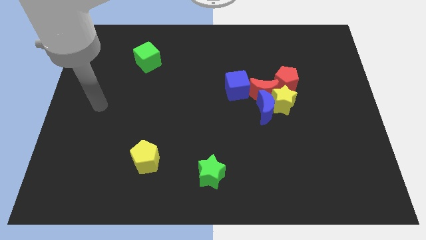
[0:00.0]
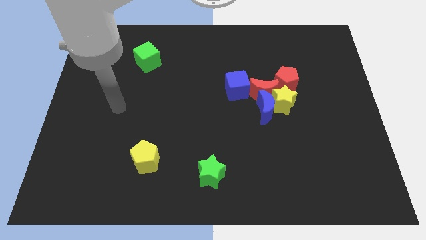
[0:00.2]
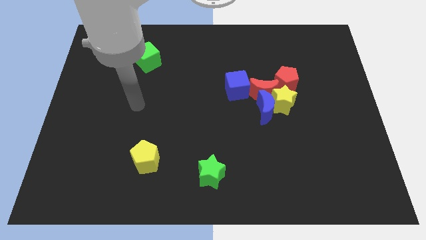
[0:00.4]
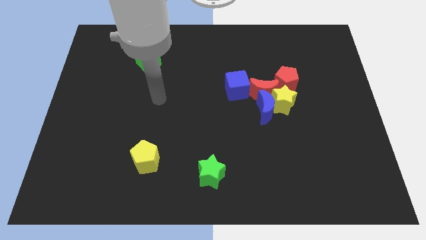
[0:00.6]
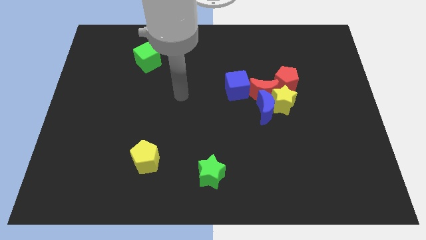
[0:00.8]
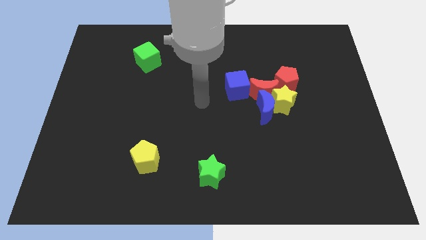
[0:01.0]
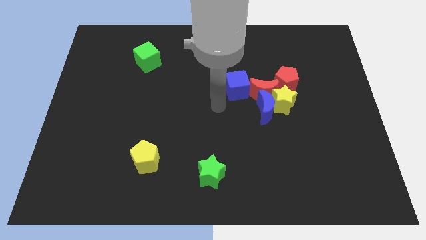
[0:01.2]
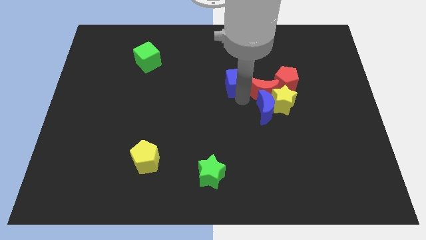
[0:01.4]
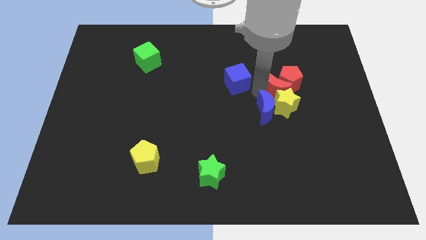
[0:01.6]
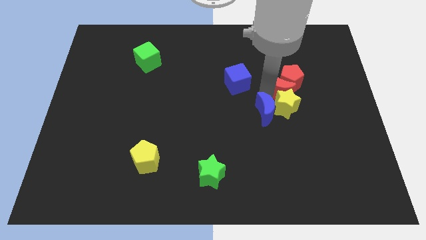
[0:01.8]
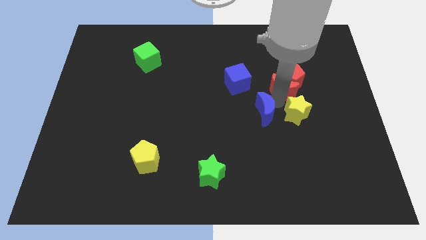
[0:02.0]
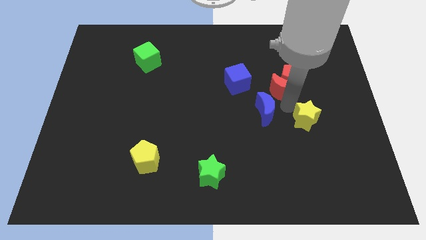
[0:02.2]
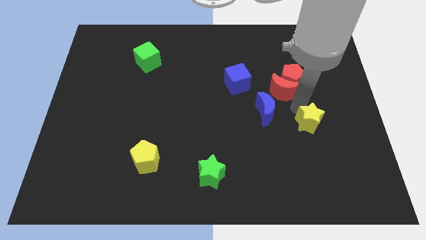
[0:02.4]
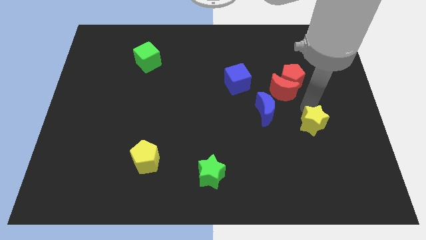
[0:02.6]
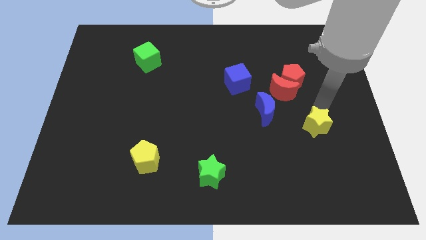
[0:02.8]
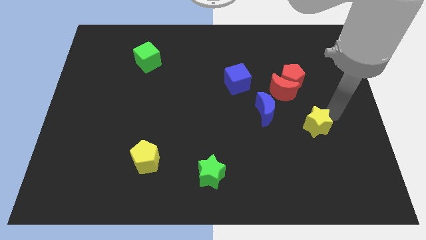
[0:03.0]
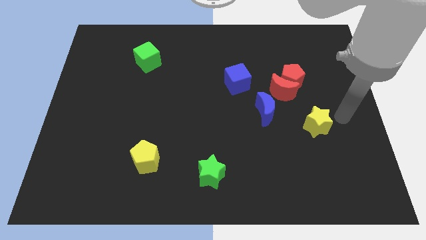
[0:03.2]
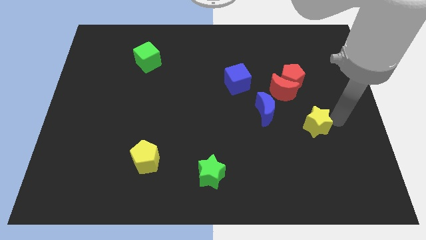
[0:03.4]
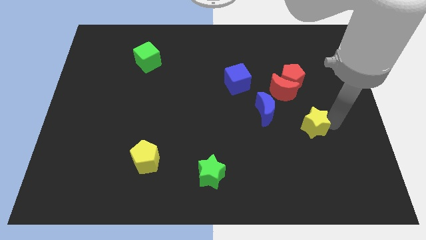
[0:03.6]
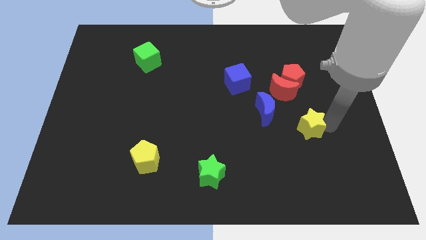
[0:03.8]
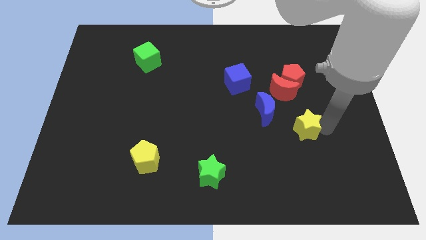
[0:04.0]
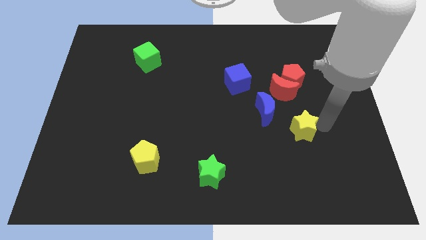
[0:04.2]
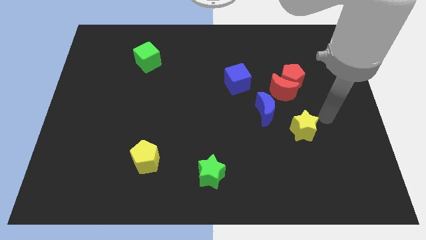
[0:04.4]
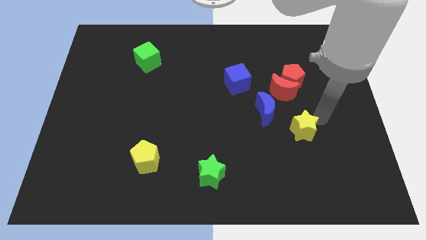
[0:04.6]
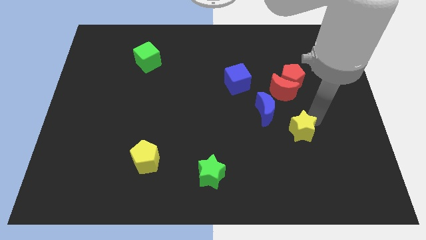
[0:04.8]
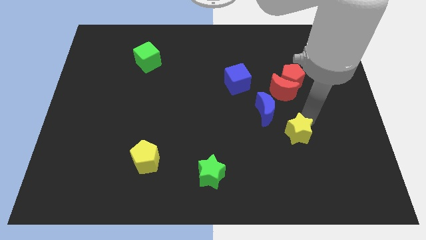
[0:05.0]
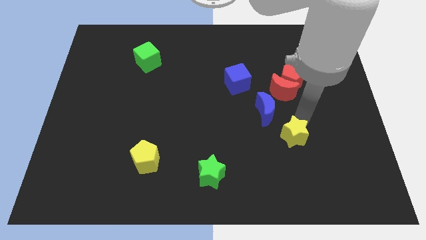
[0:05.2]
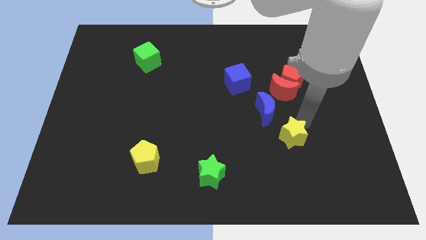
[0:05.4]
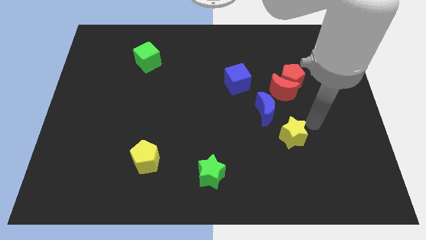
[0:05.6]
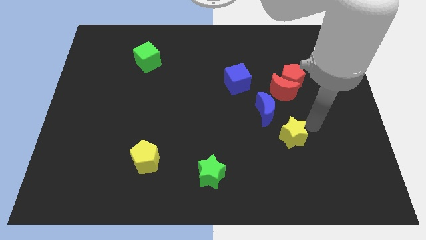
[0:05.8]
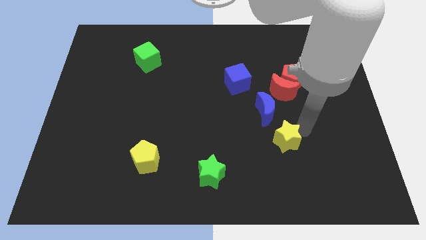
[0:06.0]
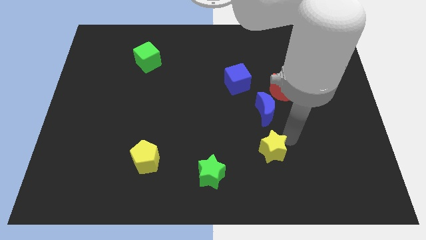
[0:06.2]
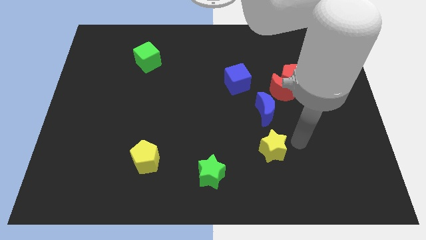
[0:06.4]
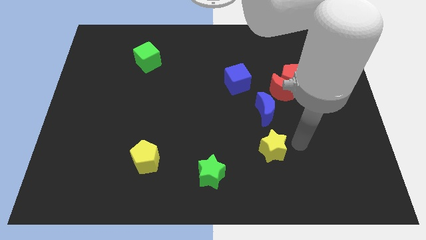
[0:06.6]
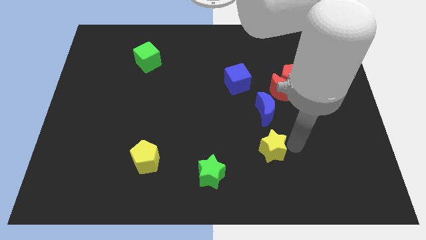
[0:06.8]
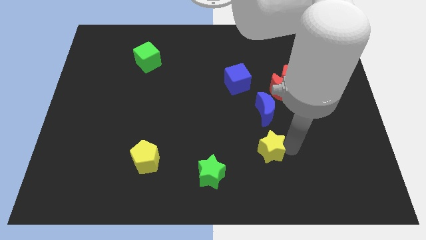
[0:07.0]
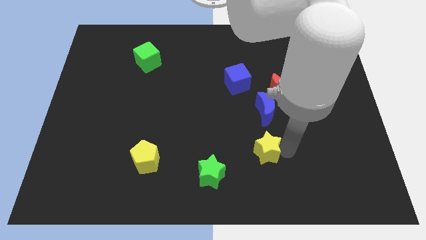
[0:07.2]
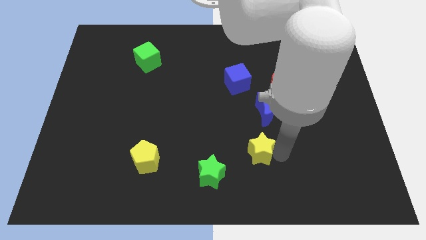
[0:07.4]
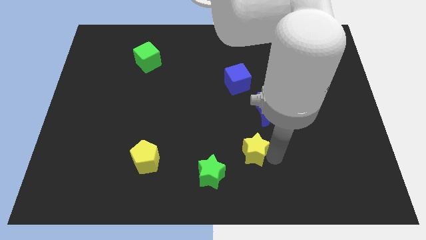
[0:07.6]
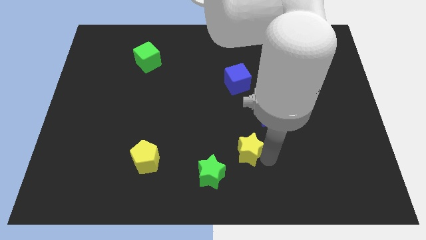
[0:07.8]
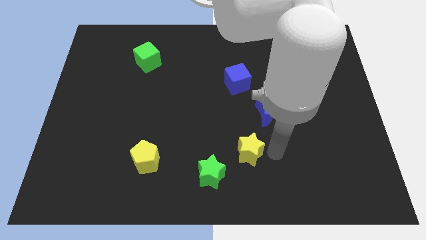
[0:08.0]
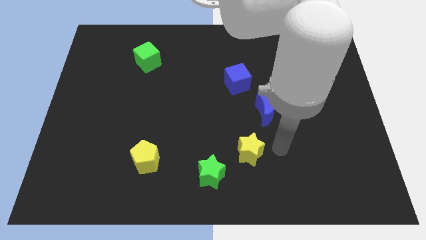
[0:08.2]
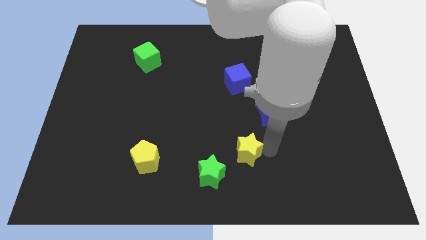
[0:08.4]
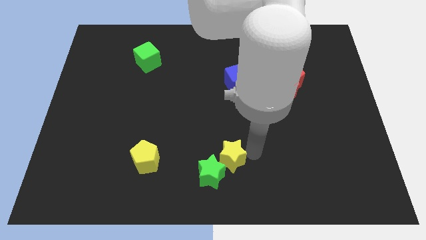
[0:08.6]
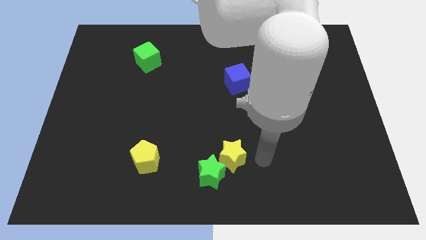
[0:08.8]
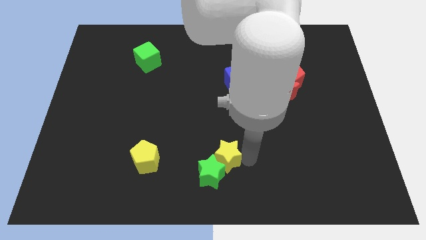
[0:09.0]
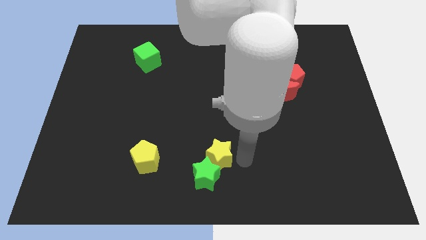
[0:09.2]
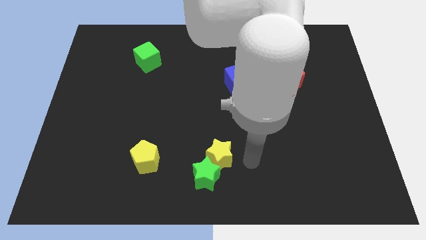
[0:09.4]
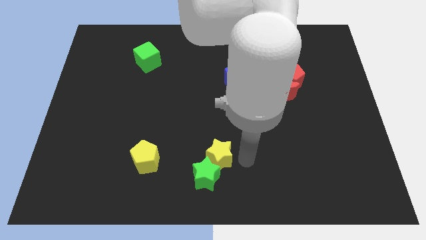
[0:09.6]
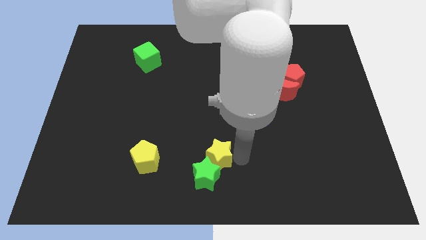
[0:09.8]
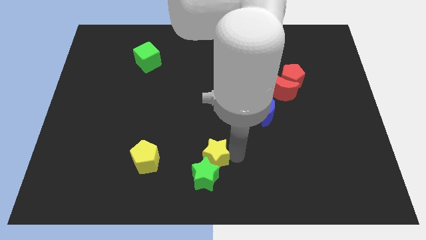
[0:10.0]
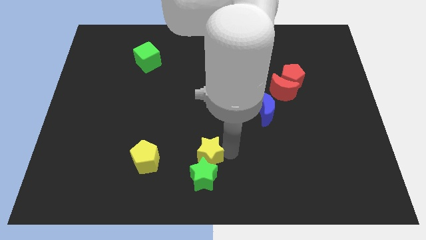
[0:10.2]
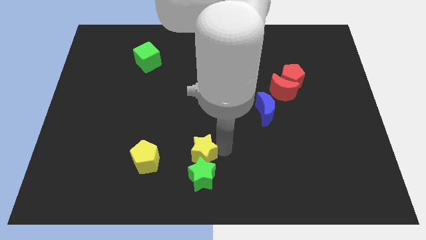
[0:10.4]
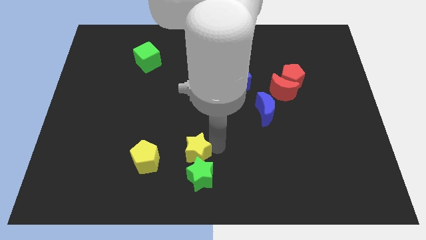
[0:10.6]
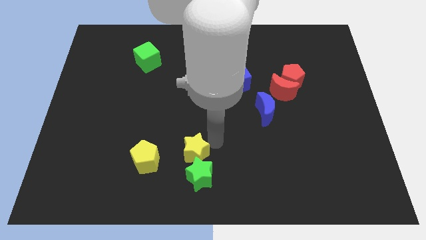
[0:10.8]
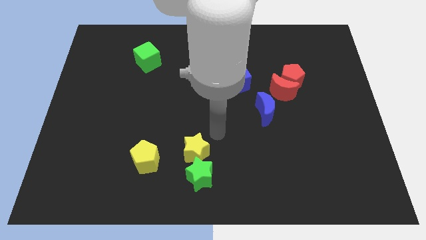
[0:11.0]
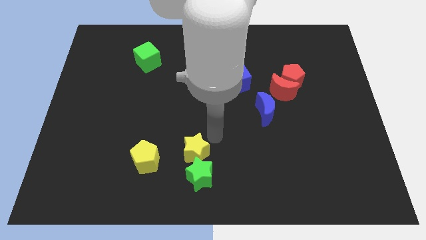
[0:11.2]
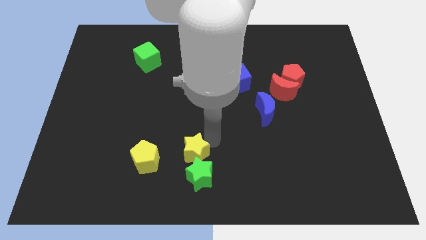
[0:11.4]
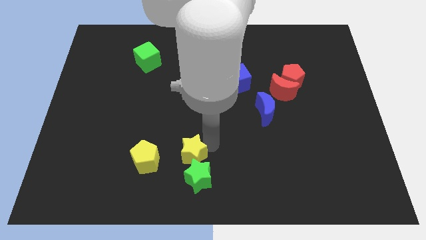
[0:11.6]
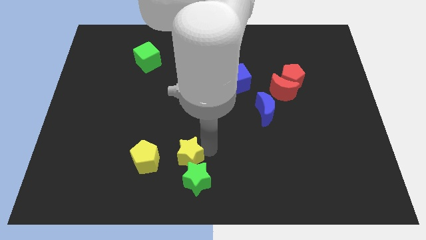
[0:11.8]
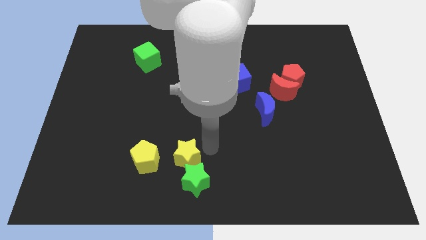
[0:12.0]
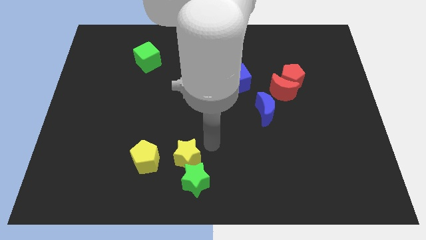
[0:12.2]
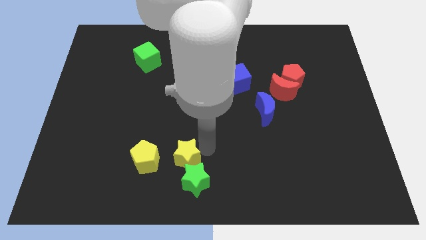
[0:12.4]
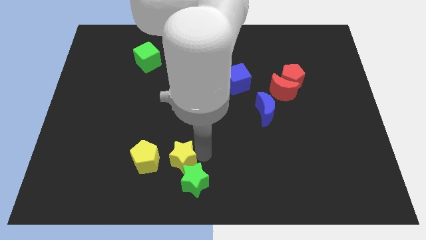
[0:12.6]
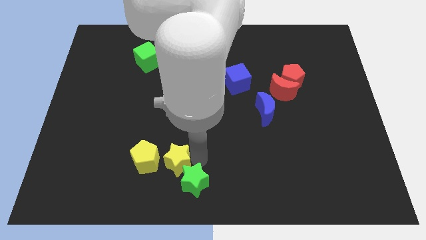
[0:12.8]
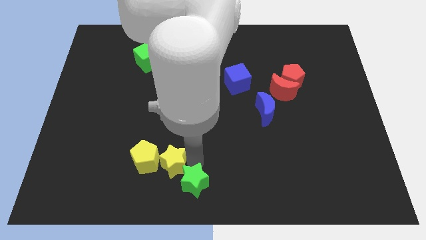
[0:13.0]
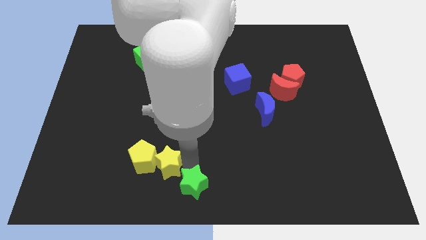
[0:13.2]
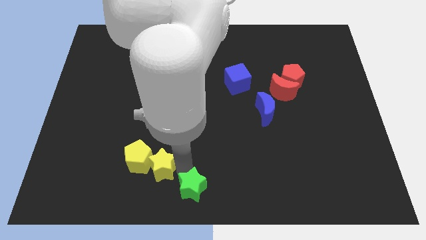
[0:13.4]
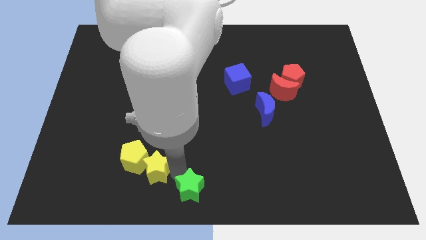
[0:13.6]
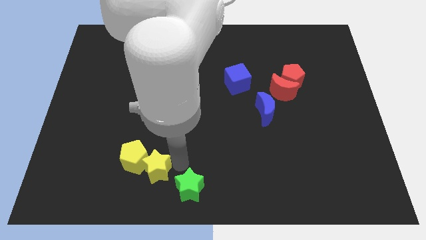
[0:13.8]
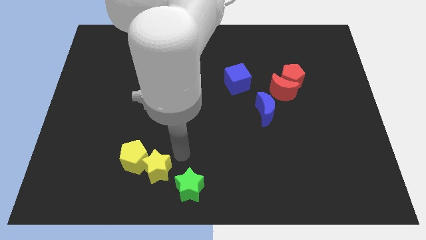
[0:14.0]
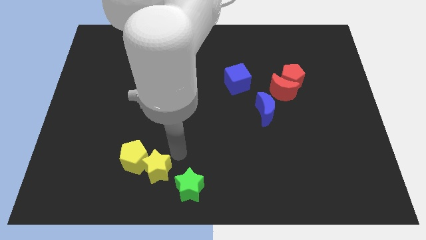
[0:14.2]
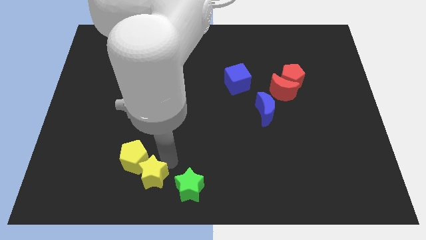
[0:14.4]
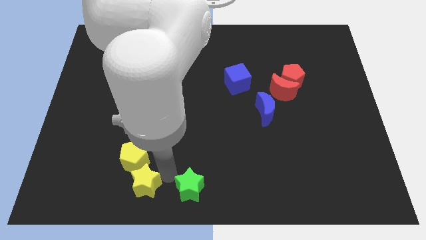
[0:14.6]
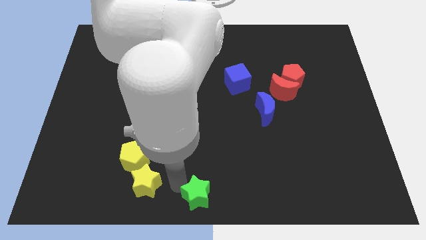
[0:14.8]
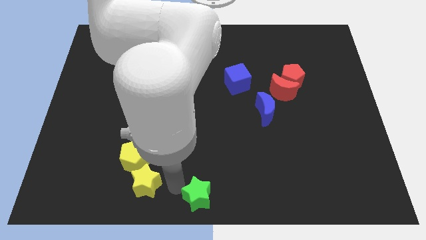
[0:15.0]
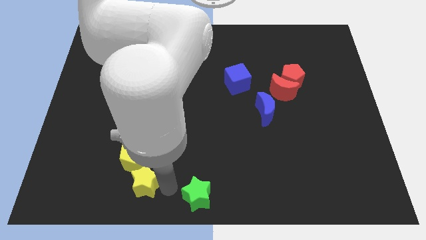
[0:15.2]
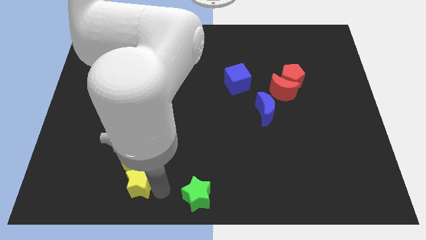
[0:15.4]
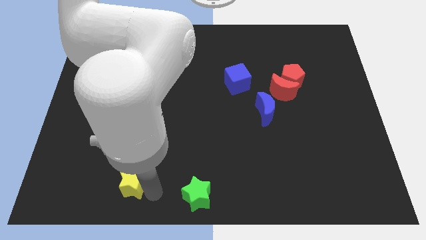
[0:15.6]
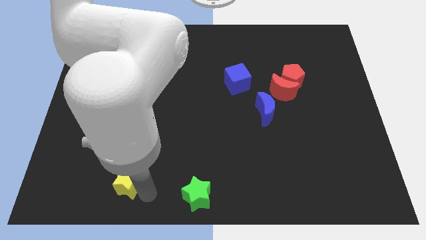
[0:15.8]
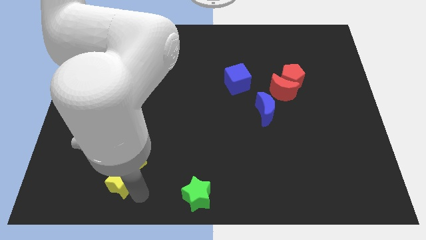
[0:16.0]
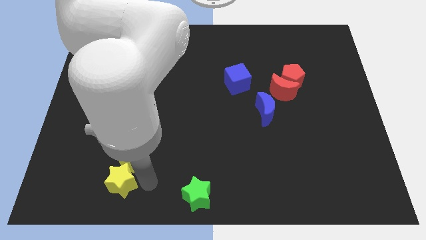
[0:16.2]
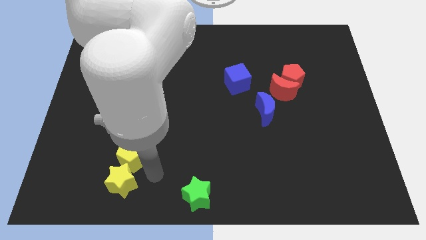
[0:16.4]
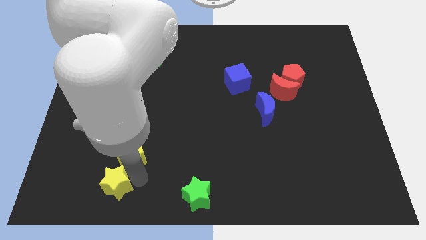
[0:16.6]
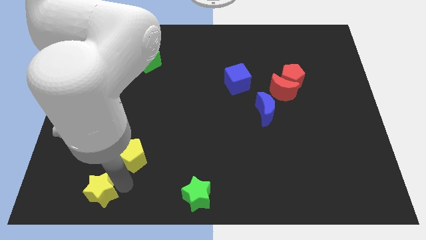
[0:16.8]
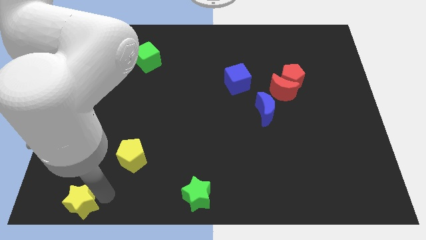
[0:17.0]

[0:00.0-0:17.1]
move the yellow star to the lower left corner
